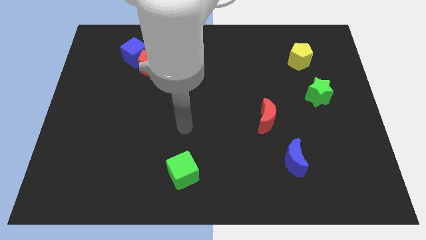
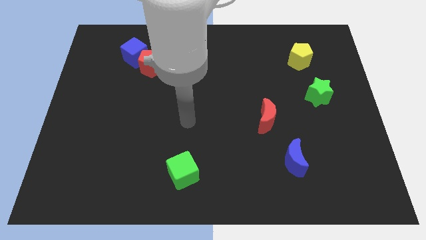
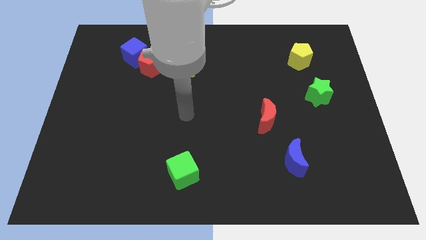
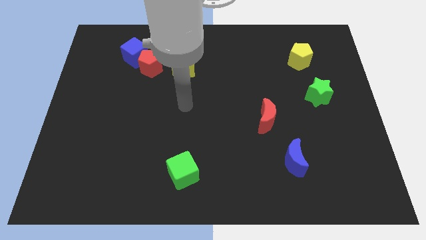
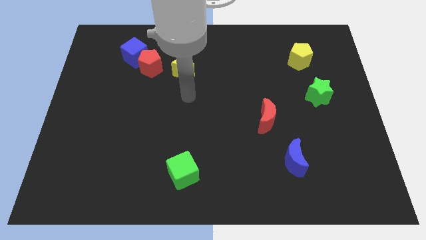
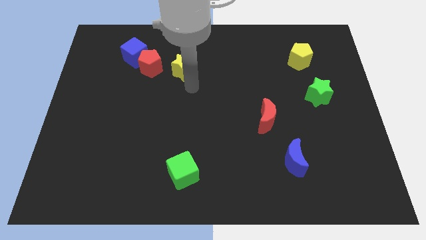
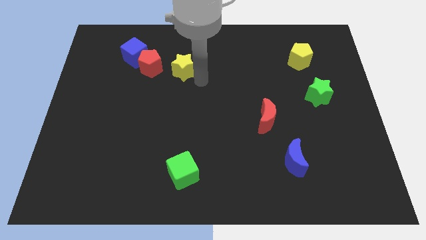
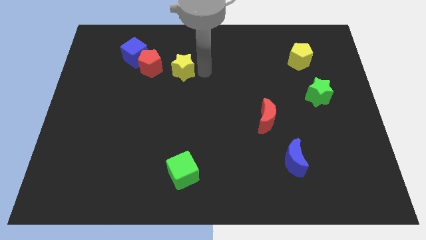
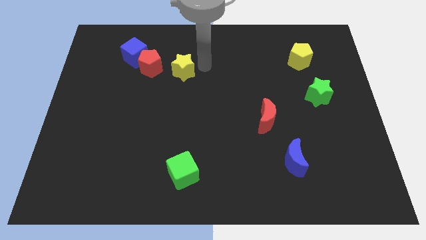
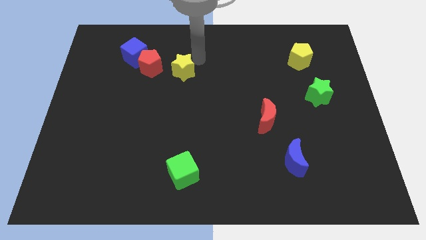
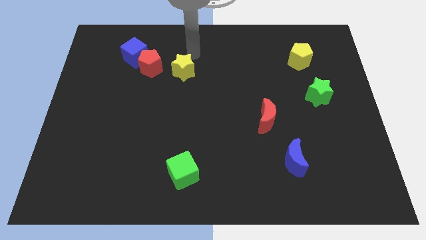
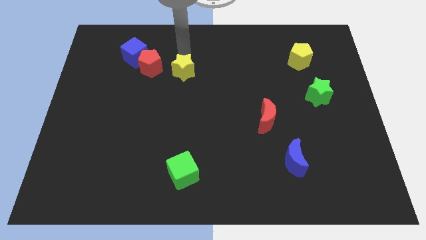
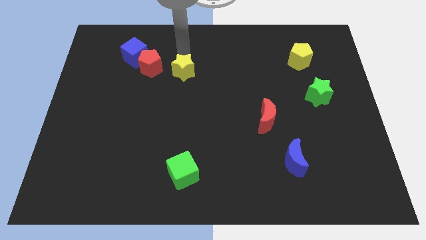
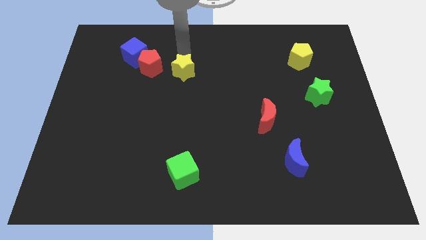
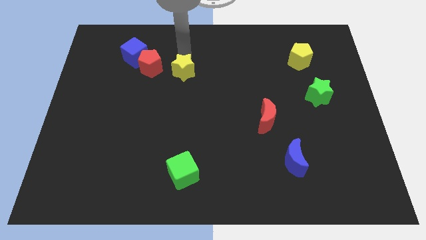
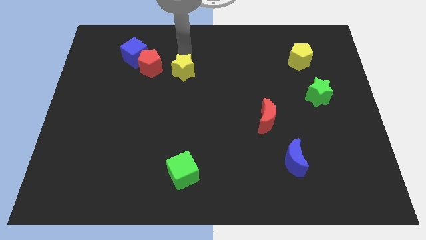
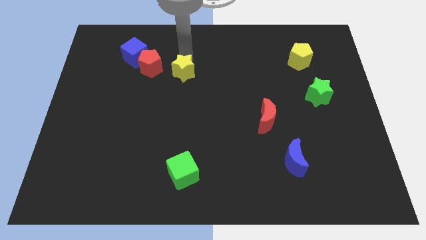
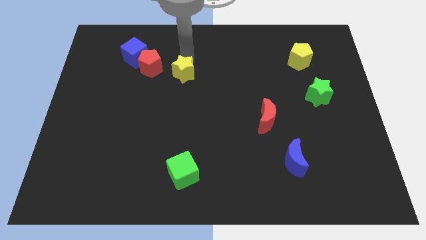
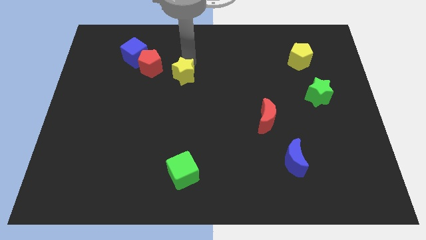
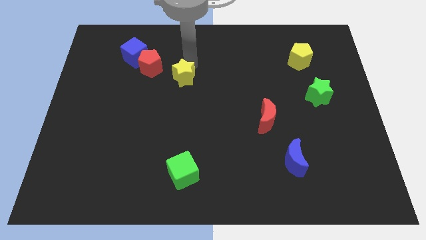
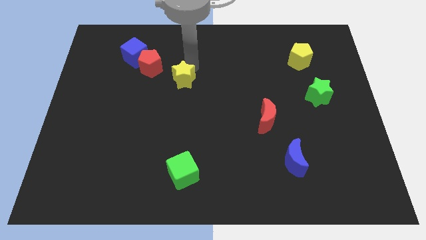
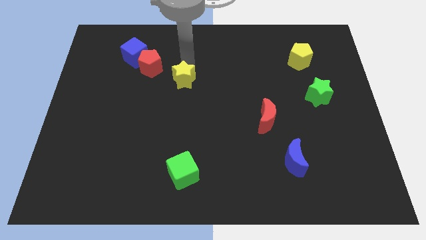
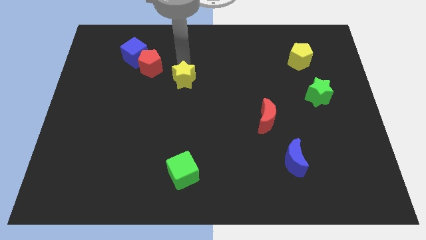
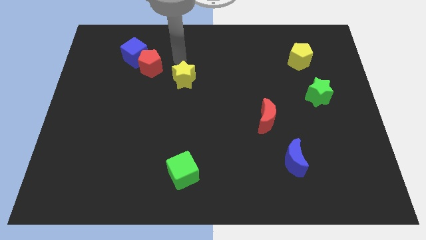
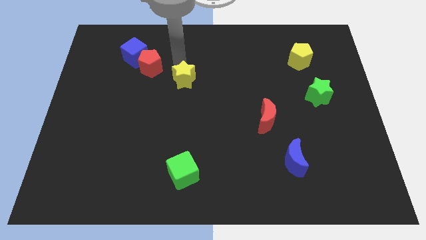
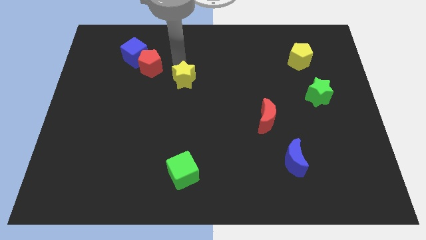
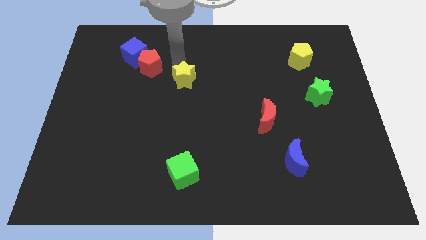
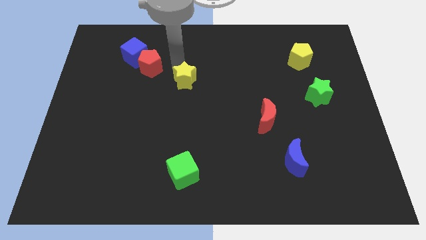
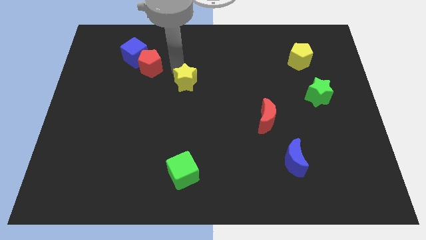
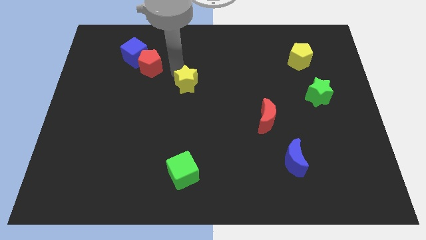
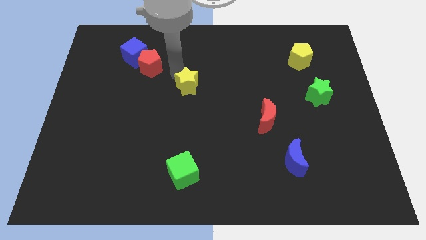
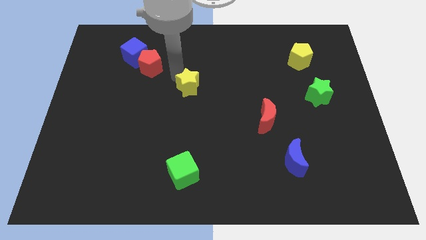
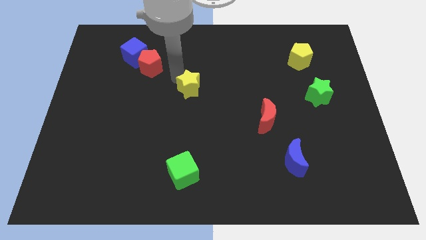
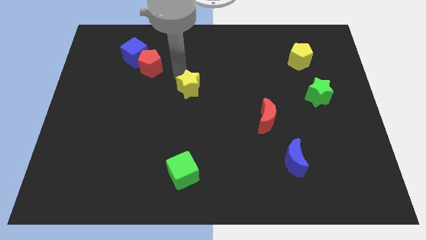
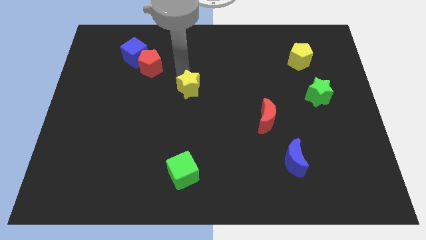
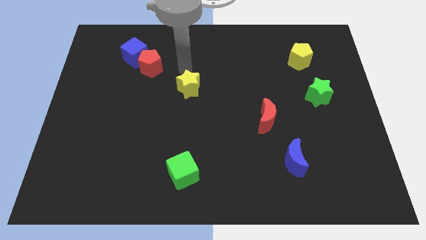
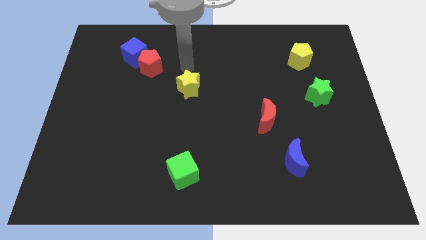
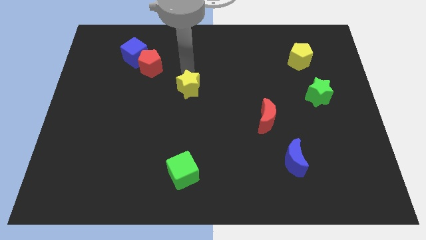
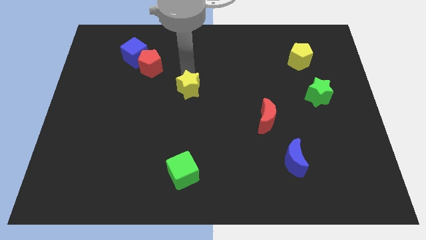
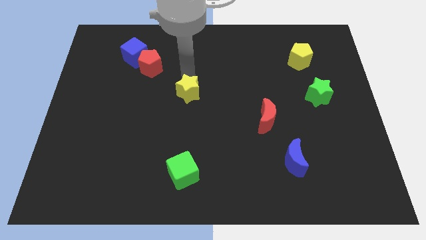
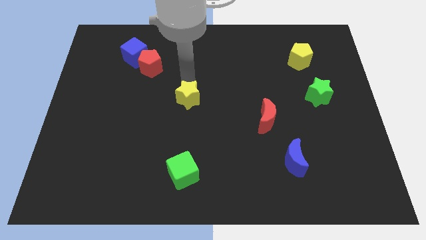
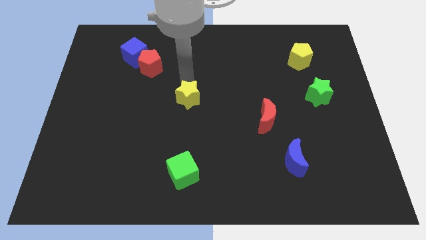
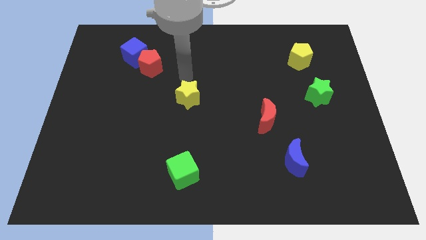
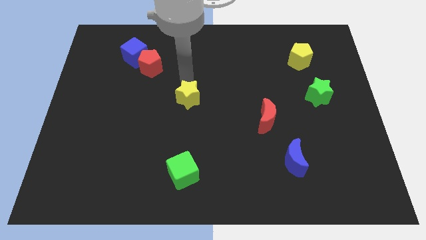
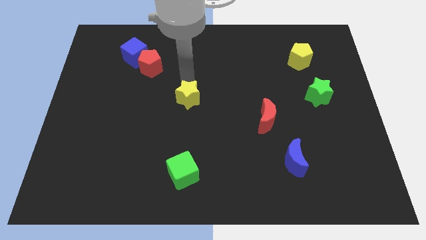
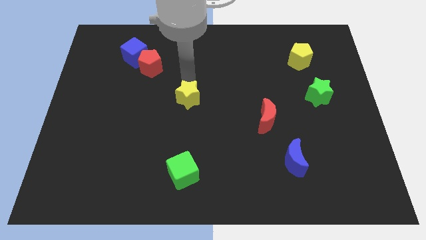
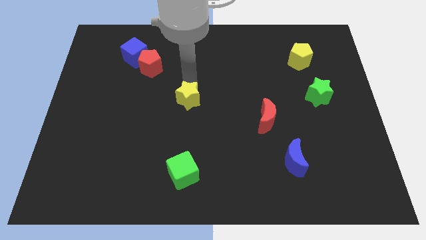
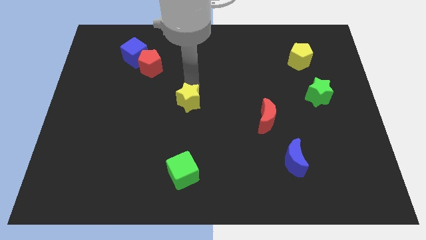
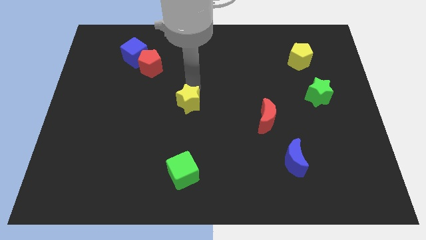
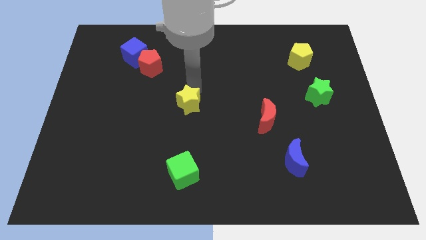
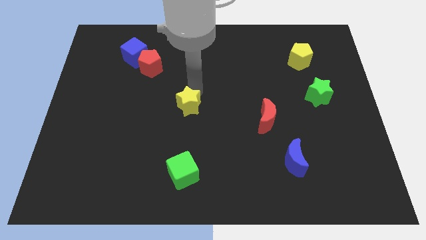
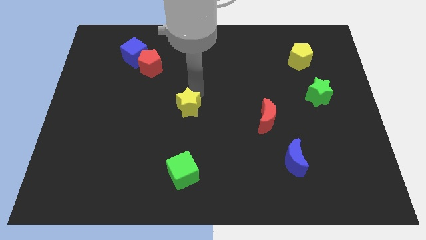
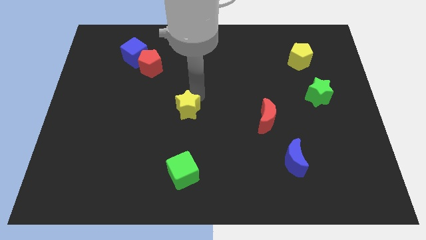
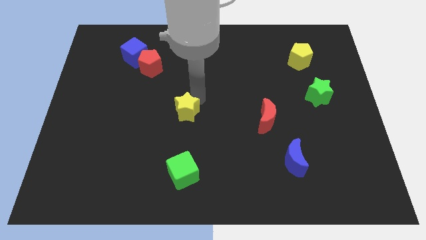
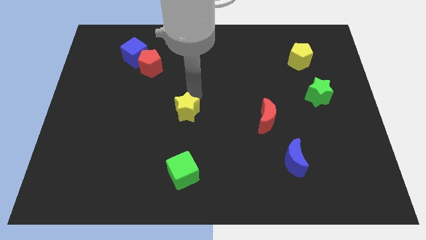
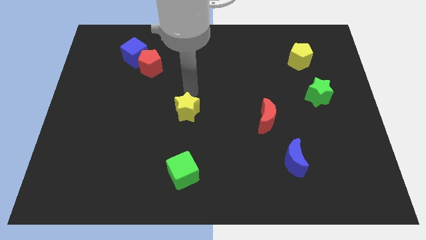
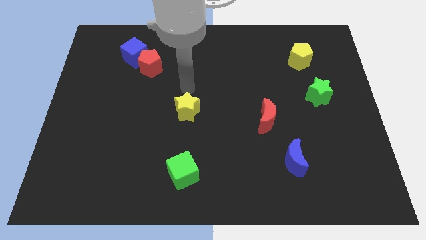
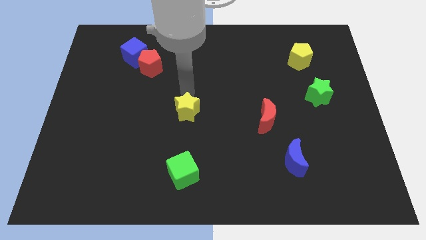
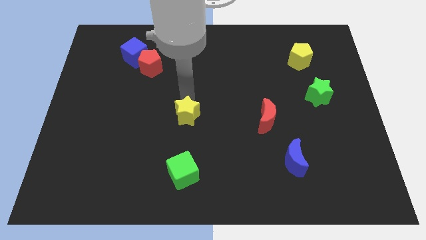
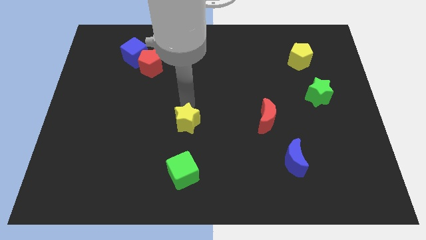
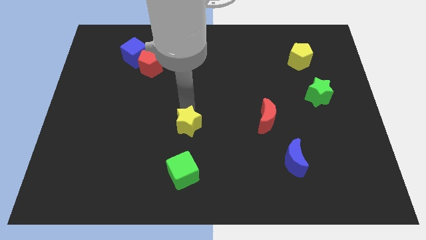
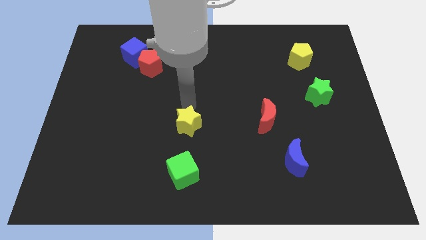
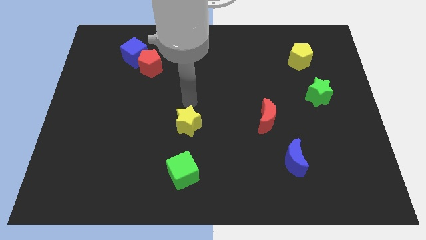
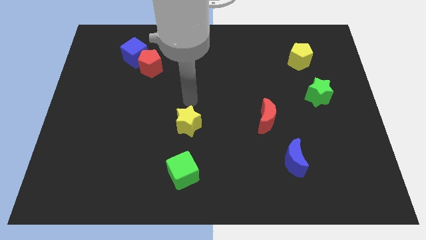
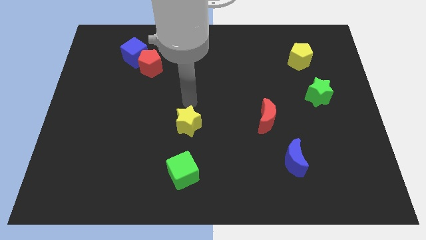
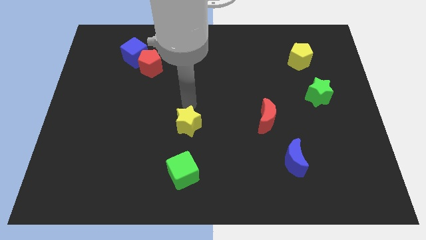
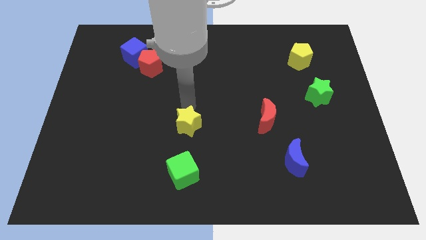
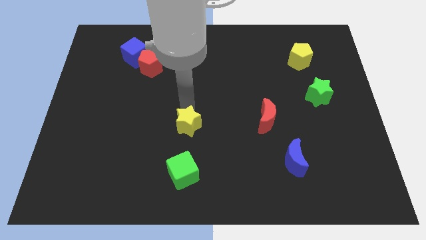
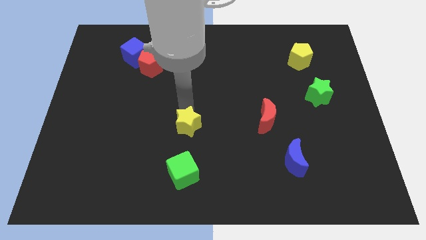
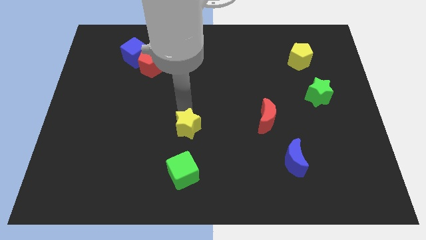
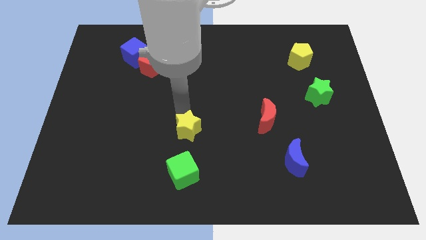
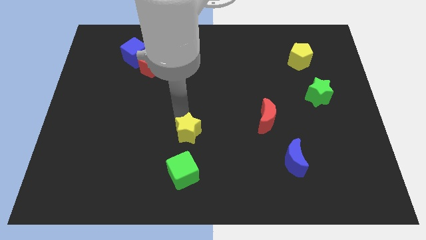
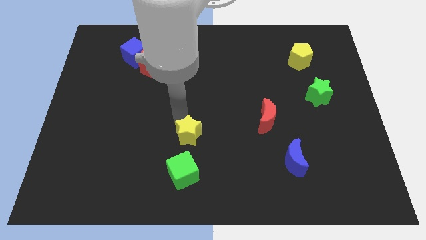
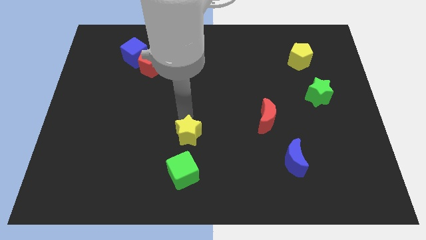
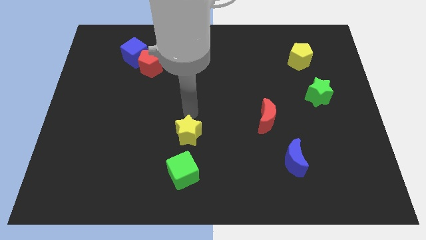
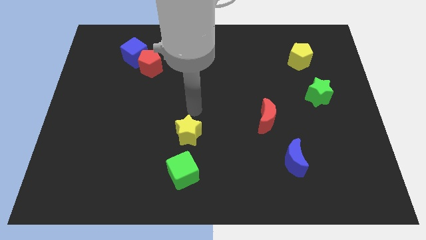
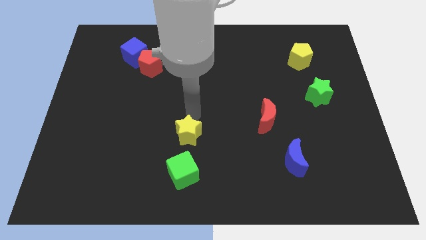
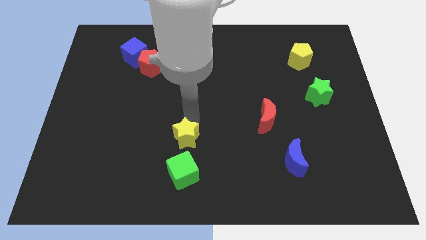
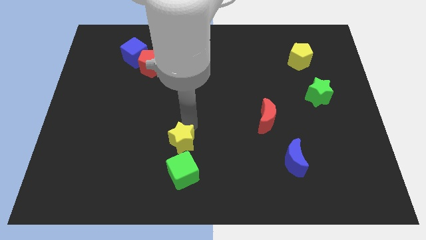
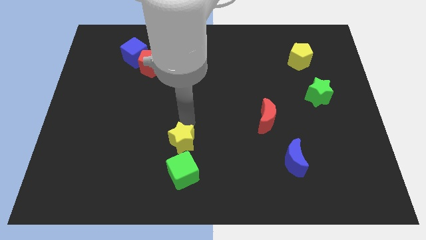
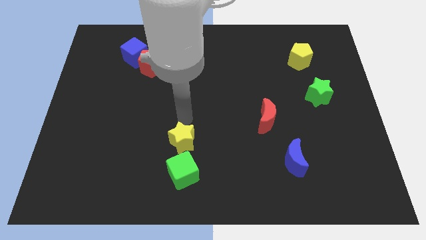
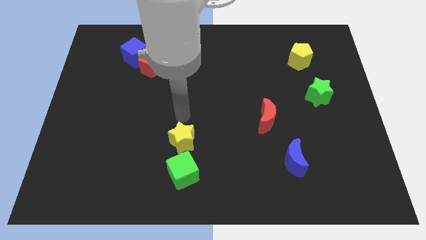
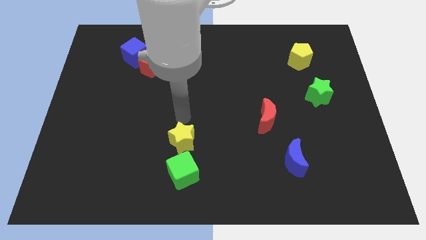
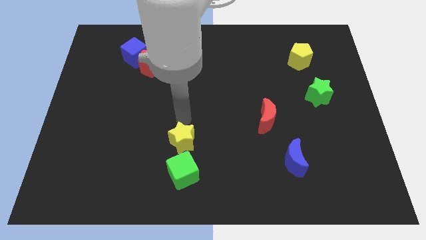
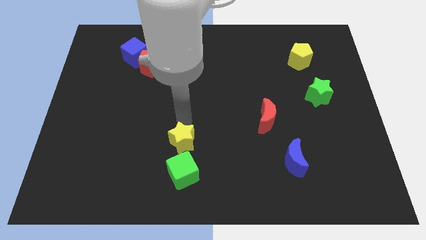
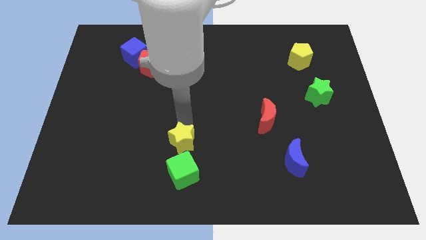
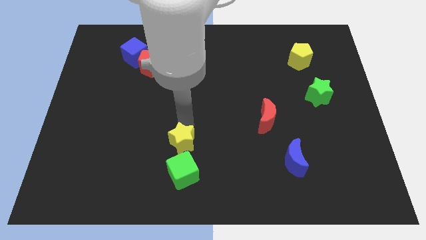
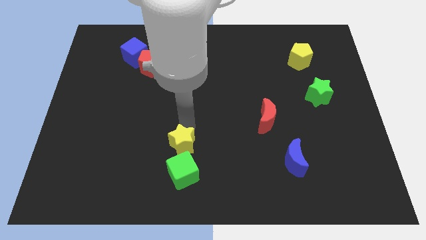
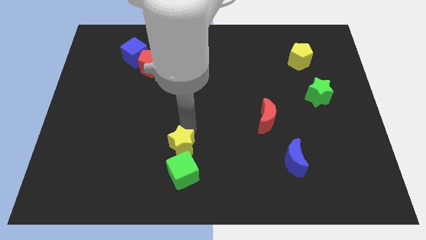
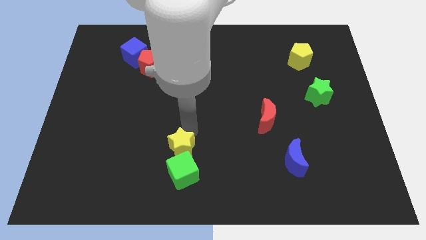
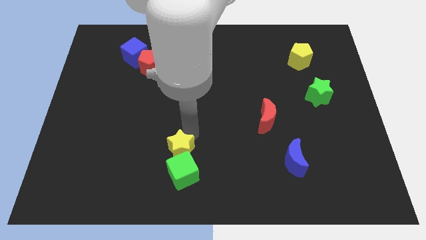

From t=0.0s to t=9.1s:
move the yellow star next to the green cube
